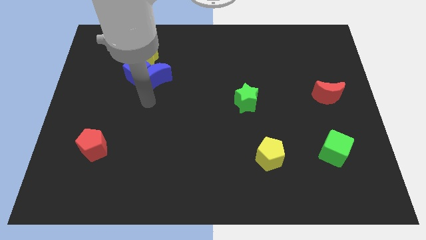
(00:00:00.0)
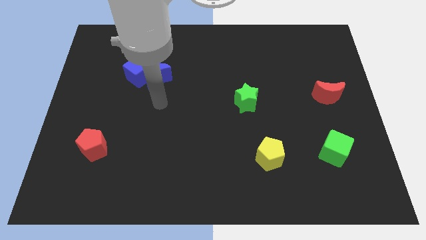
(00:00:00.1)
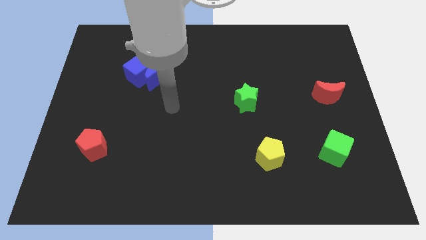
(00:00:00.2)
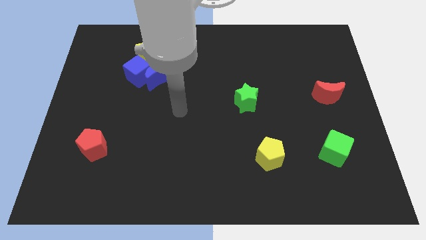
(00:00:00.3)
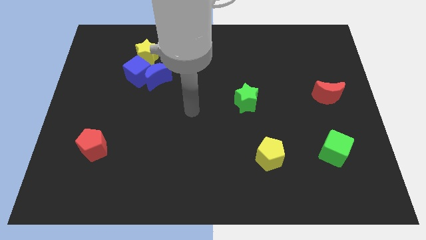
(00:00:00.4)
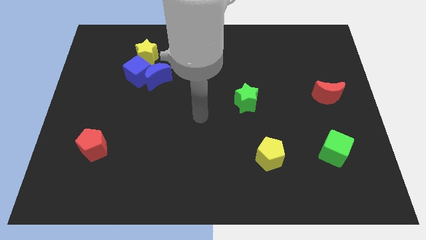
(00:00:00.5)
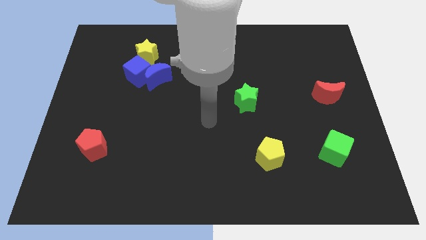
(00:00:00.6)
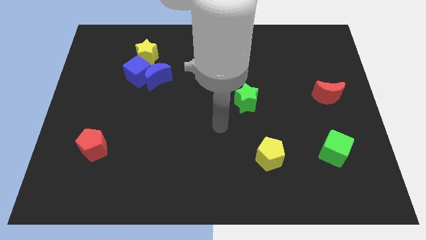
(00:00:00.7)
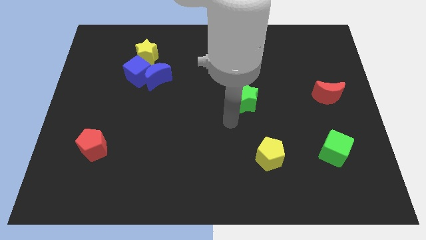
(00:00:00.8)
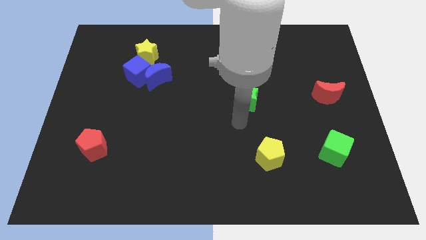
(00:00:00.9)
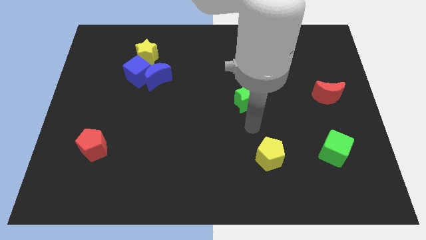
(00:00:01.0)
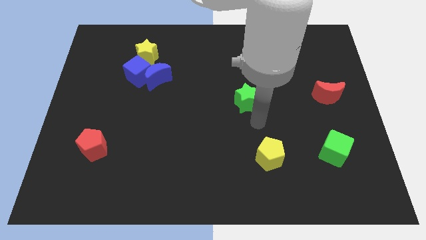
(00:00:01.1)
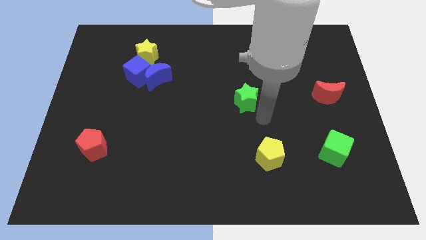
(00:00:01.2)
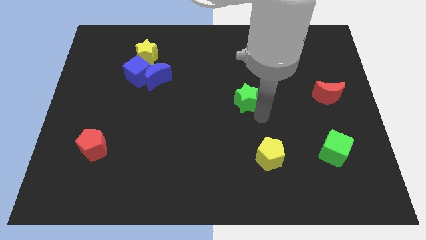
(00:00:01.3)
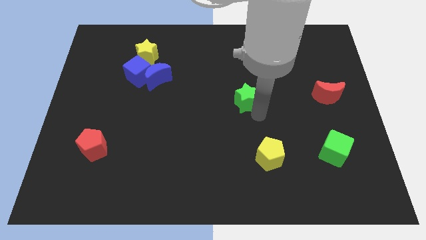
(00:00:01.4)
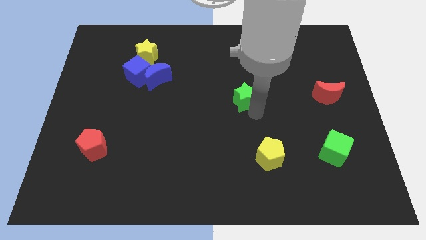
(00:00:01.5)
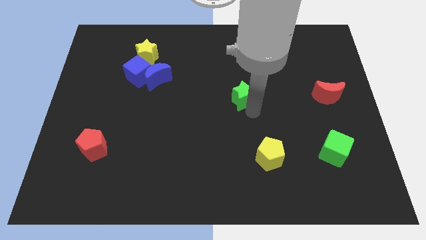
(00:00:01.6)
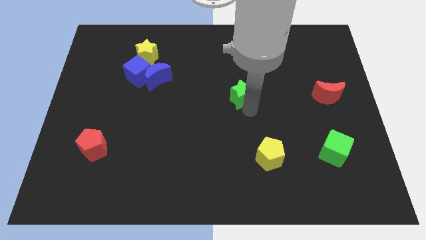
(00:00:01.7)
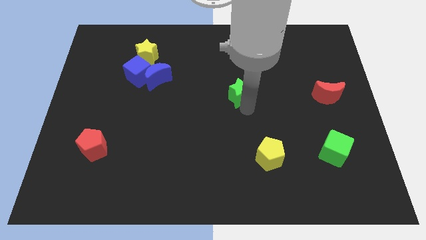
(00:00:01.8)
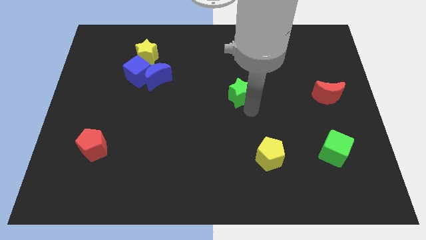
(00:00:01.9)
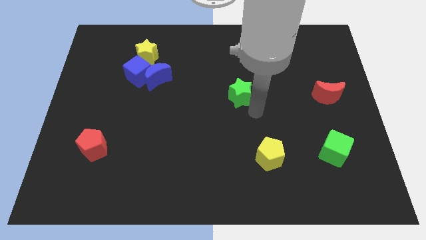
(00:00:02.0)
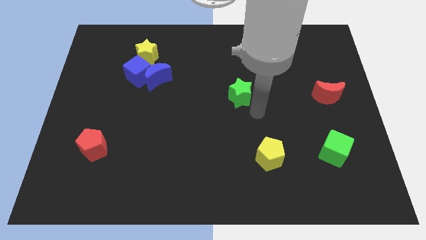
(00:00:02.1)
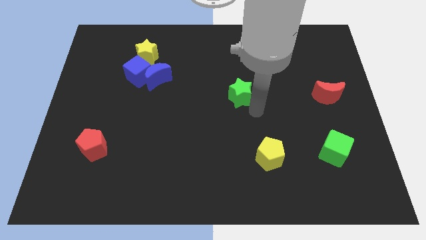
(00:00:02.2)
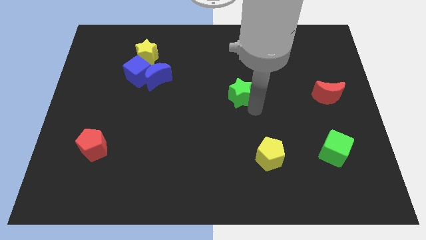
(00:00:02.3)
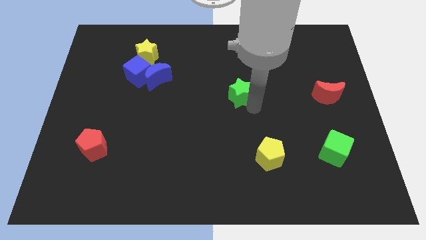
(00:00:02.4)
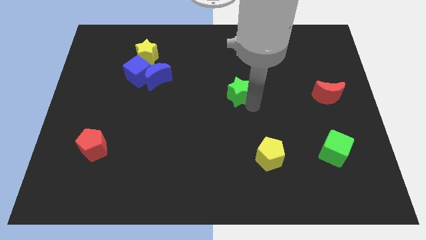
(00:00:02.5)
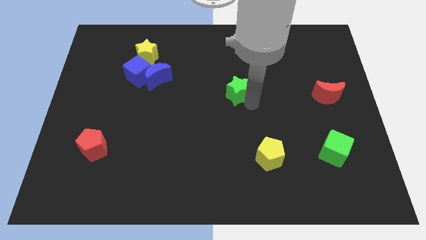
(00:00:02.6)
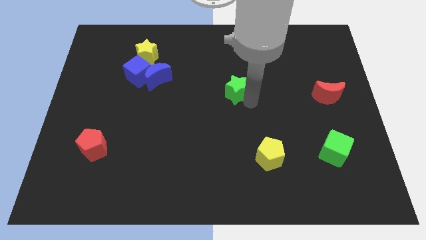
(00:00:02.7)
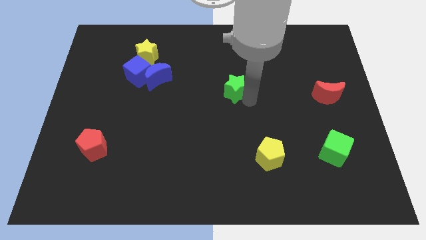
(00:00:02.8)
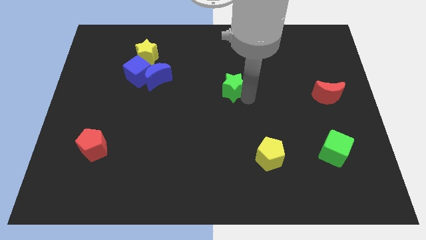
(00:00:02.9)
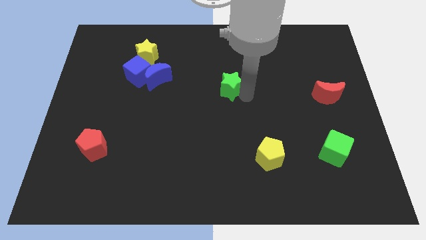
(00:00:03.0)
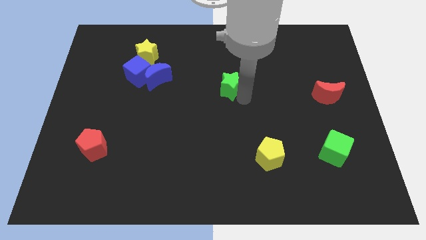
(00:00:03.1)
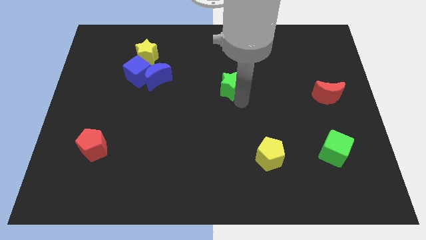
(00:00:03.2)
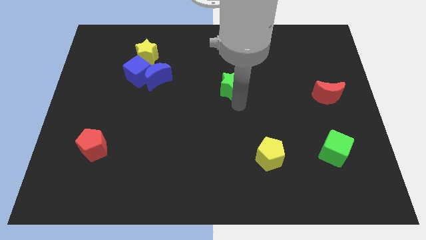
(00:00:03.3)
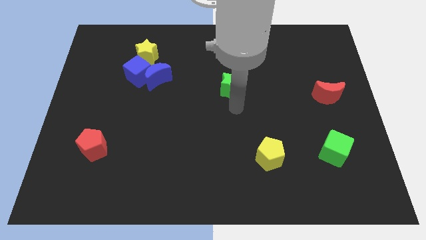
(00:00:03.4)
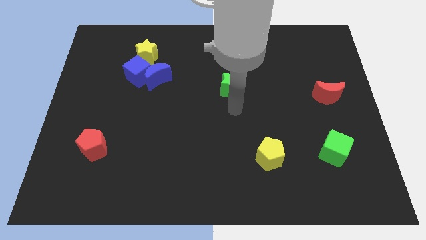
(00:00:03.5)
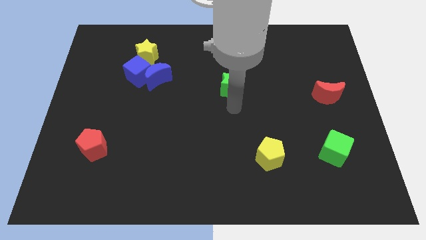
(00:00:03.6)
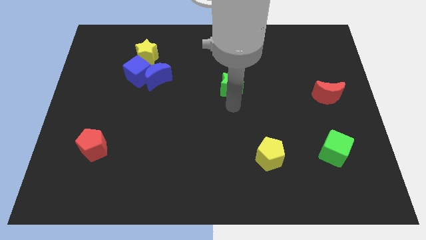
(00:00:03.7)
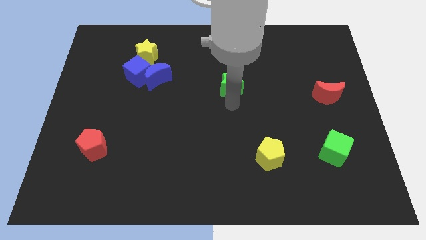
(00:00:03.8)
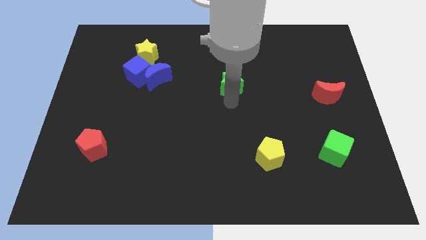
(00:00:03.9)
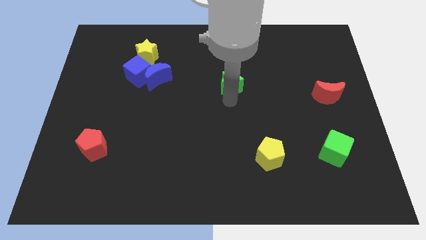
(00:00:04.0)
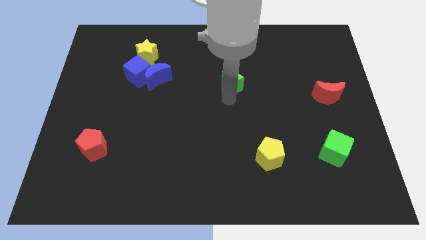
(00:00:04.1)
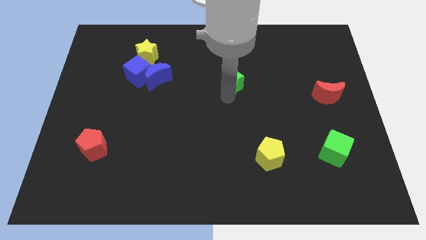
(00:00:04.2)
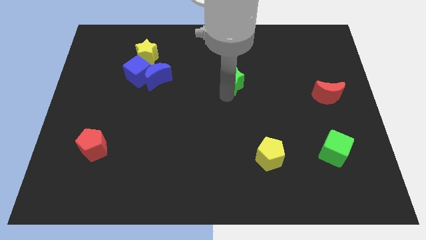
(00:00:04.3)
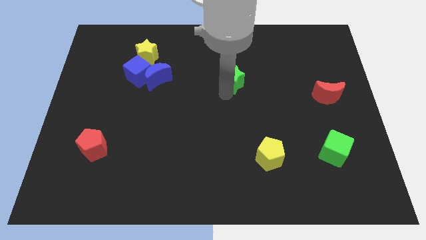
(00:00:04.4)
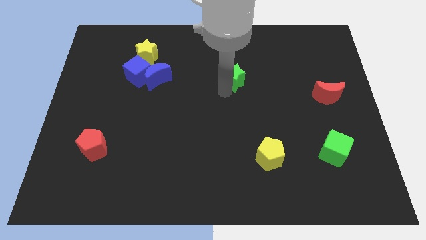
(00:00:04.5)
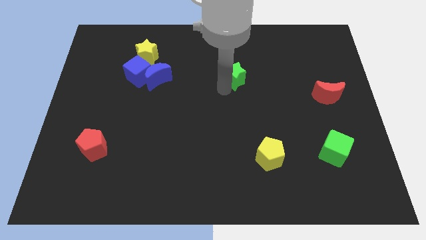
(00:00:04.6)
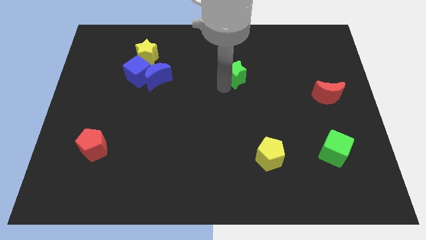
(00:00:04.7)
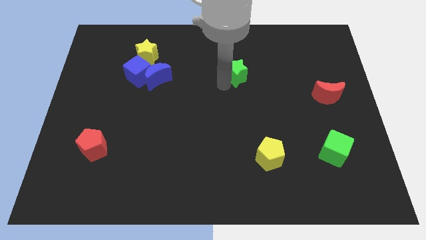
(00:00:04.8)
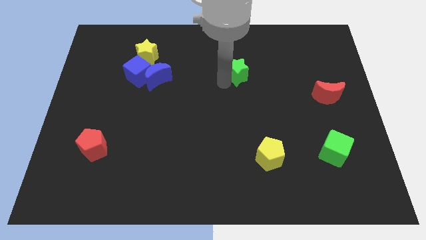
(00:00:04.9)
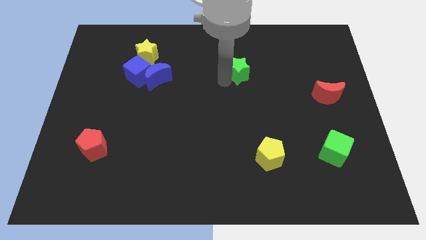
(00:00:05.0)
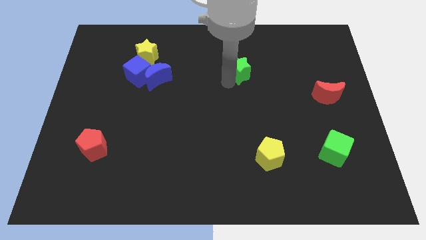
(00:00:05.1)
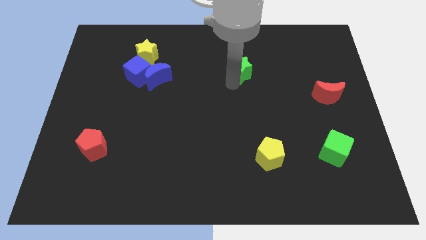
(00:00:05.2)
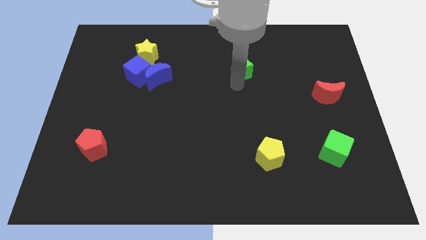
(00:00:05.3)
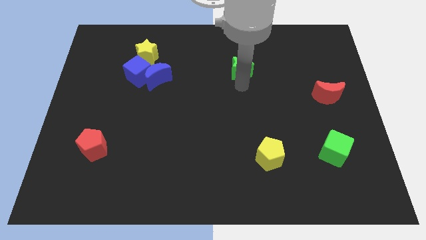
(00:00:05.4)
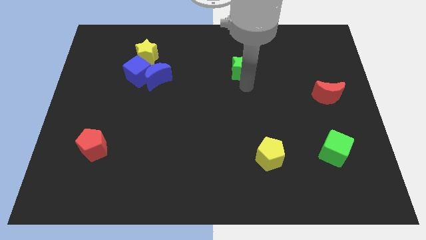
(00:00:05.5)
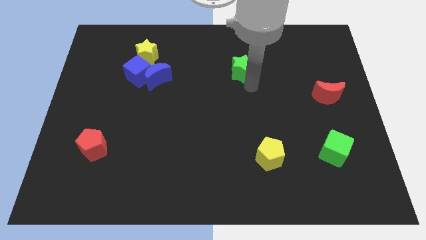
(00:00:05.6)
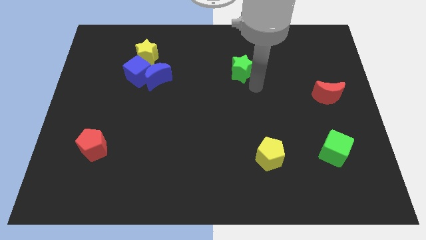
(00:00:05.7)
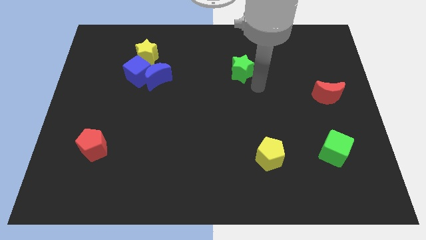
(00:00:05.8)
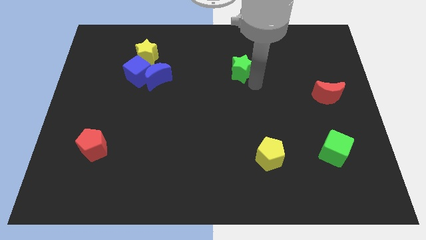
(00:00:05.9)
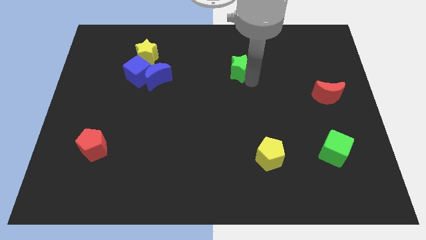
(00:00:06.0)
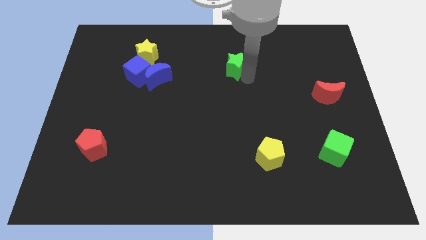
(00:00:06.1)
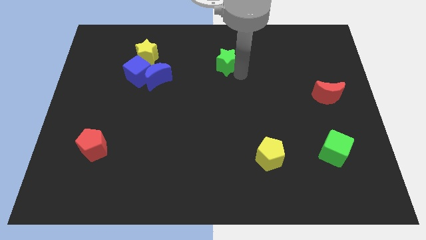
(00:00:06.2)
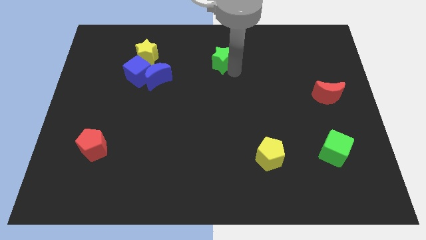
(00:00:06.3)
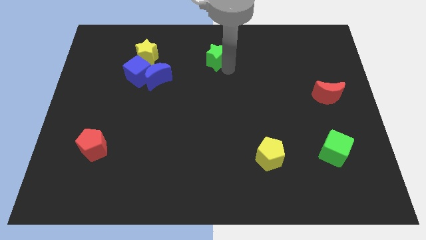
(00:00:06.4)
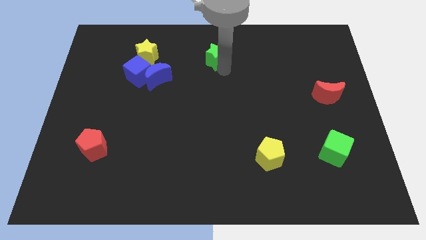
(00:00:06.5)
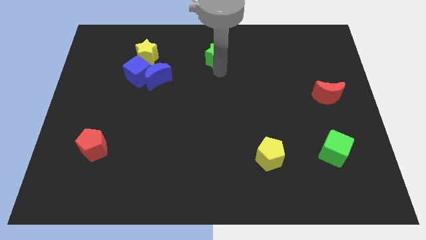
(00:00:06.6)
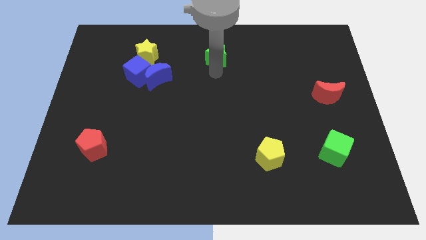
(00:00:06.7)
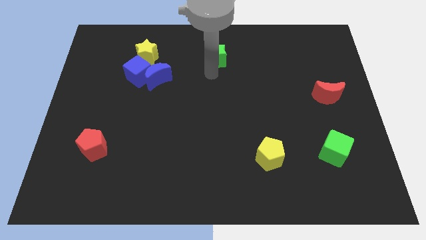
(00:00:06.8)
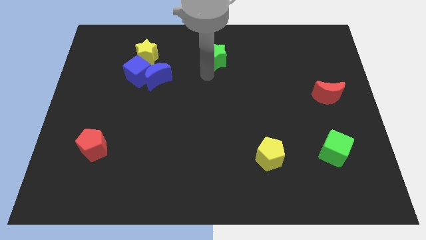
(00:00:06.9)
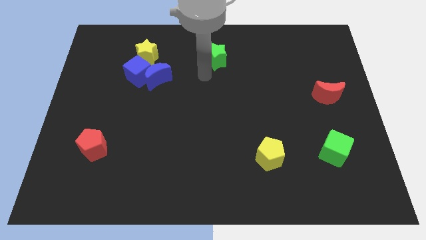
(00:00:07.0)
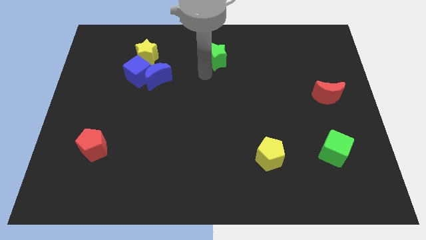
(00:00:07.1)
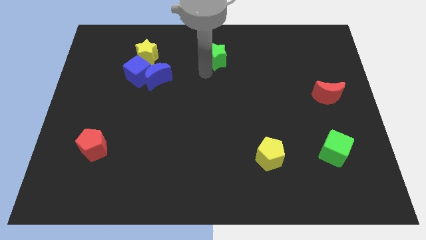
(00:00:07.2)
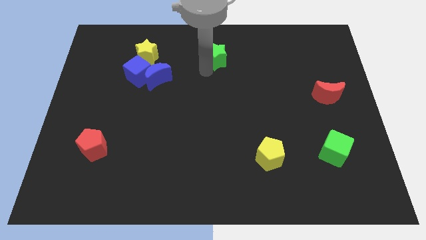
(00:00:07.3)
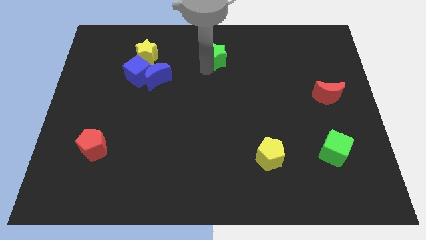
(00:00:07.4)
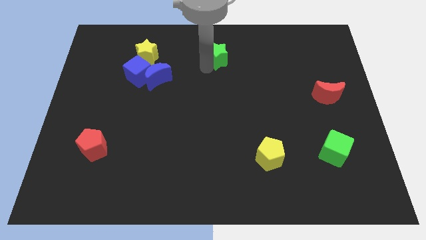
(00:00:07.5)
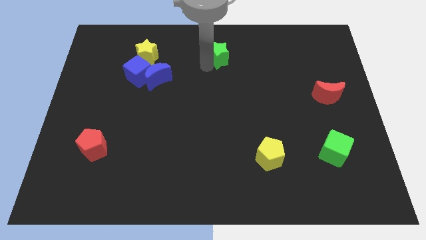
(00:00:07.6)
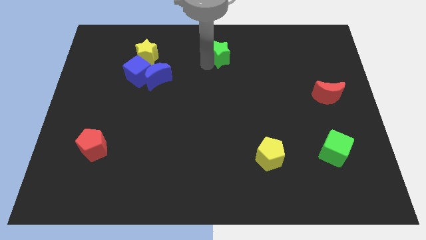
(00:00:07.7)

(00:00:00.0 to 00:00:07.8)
move the green star to the top side
